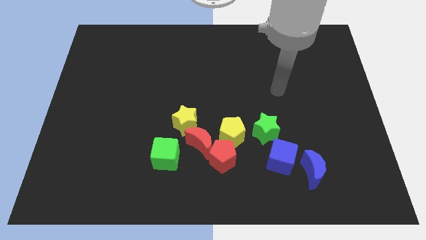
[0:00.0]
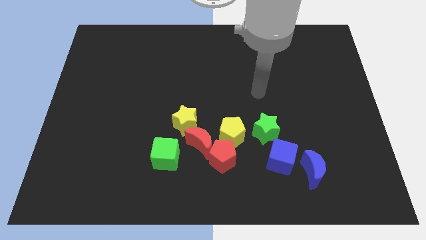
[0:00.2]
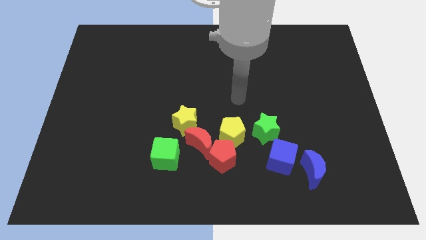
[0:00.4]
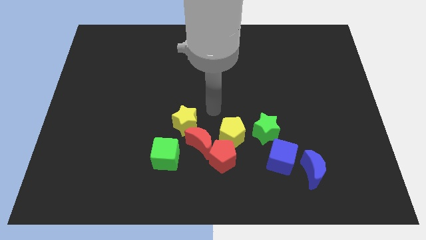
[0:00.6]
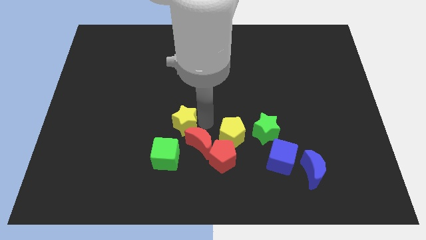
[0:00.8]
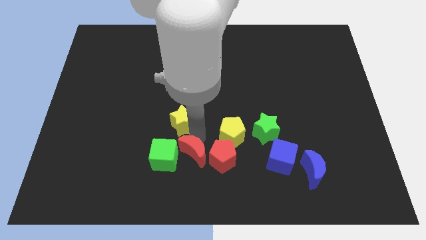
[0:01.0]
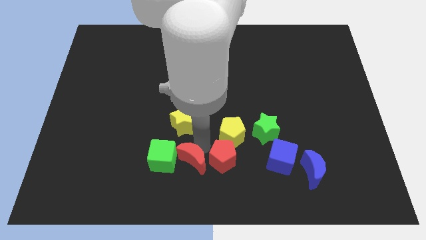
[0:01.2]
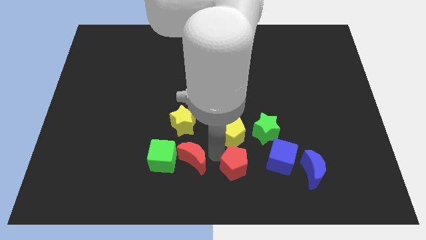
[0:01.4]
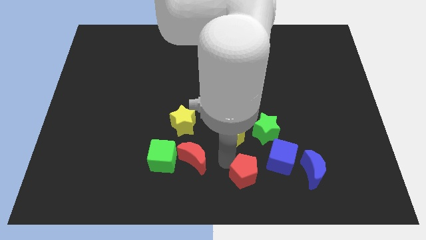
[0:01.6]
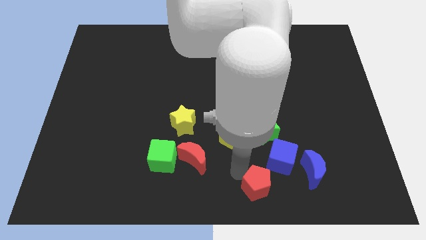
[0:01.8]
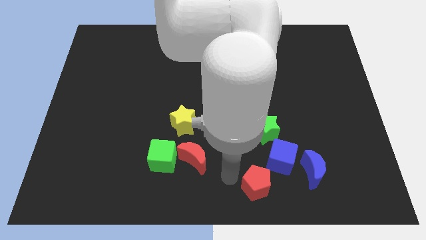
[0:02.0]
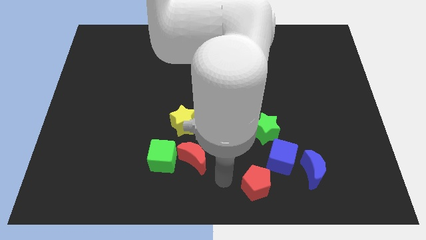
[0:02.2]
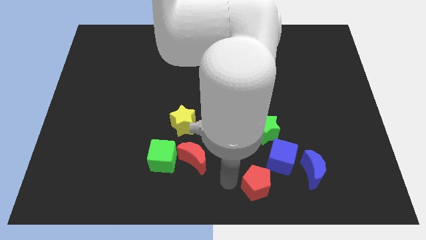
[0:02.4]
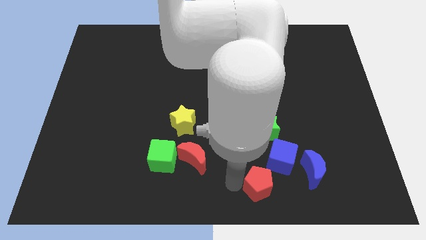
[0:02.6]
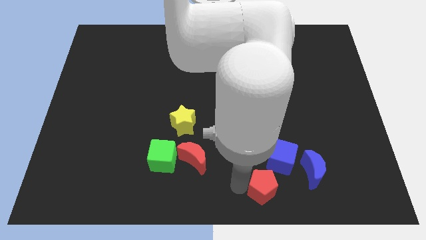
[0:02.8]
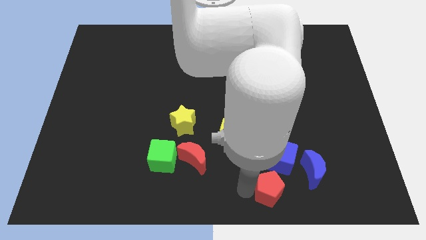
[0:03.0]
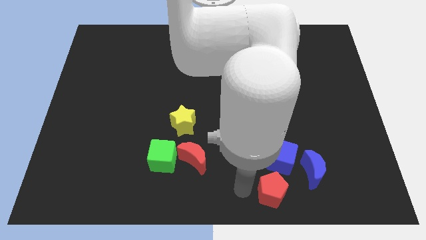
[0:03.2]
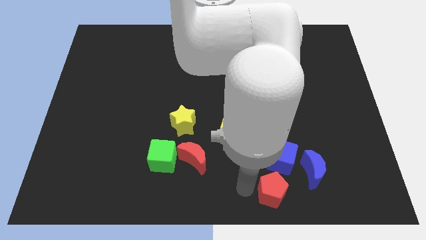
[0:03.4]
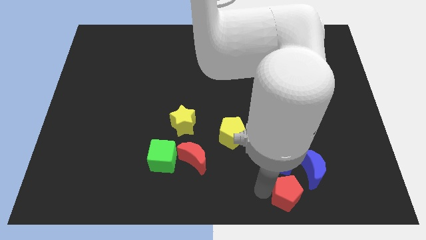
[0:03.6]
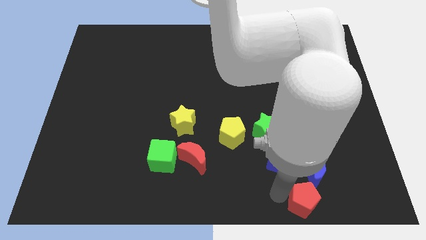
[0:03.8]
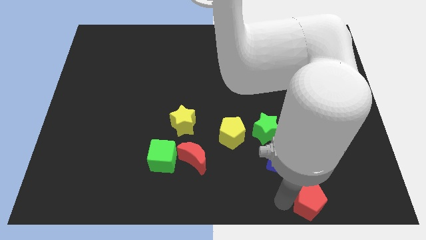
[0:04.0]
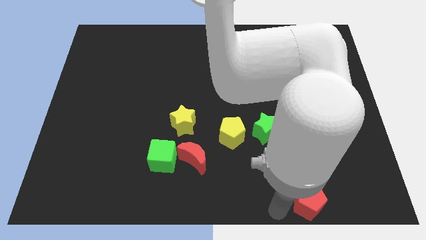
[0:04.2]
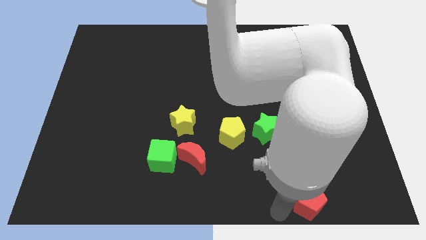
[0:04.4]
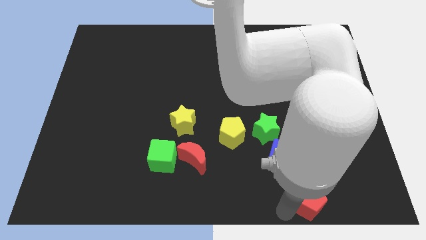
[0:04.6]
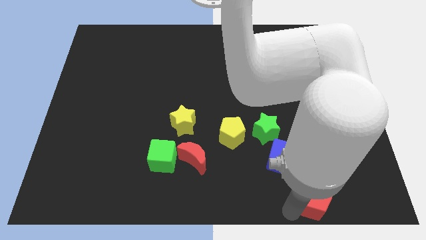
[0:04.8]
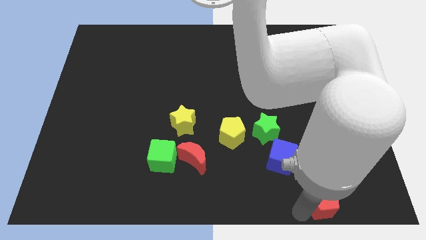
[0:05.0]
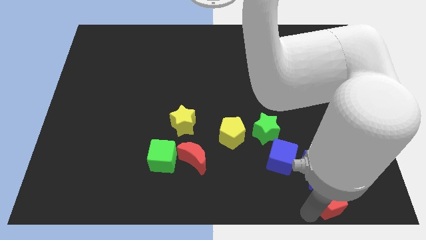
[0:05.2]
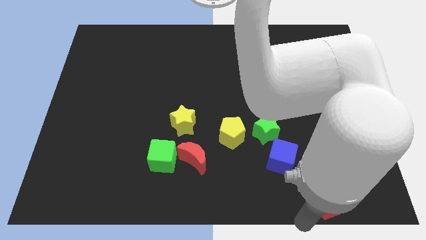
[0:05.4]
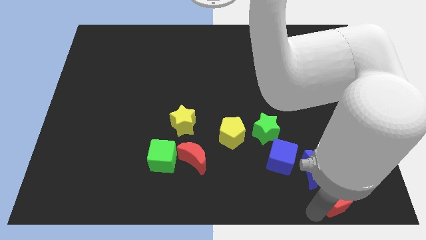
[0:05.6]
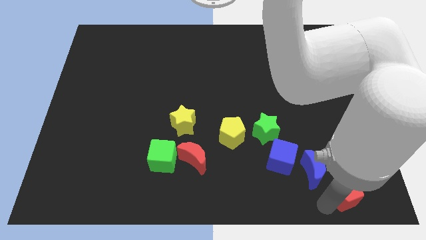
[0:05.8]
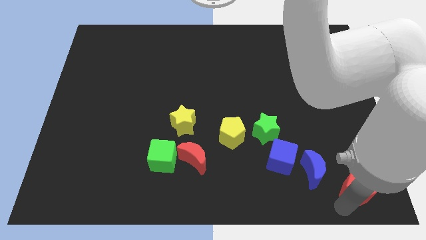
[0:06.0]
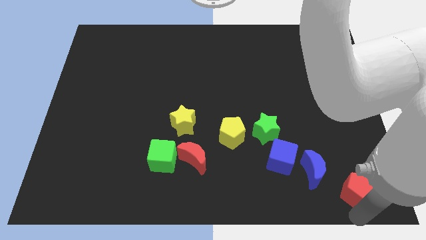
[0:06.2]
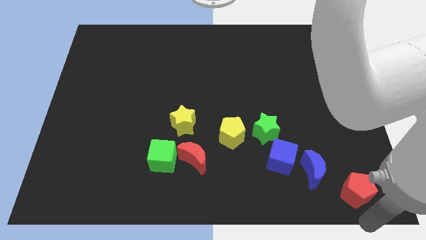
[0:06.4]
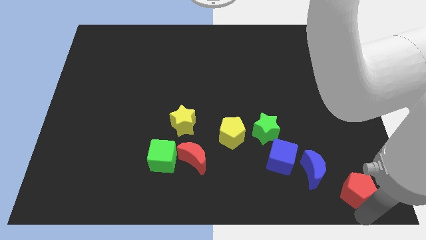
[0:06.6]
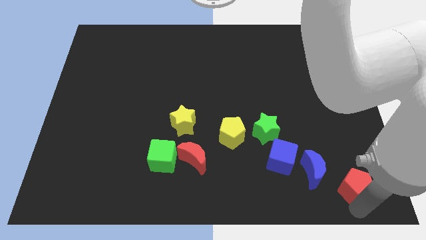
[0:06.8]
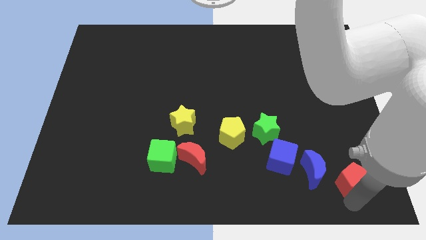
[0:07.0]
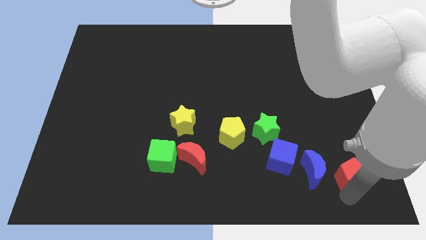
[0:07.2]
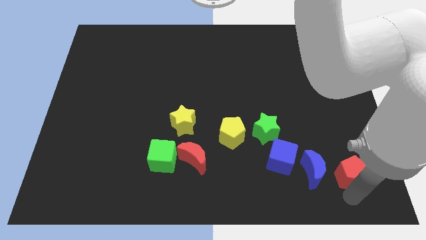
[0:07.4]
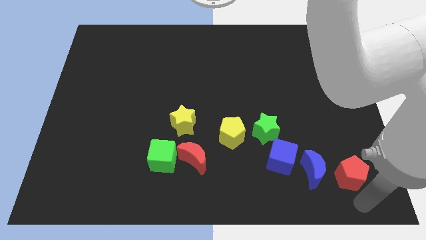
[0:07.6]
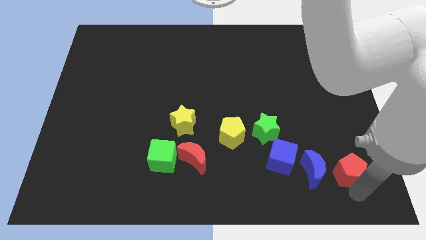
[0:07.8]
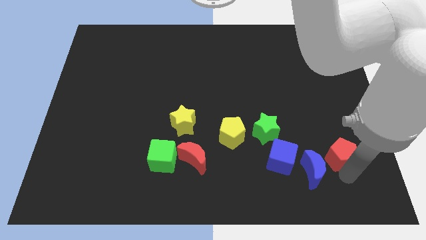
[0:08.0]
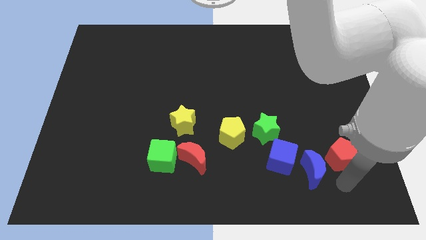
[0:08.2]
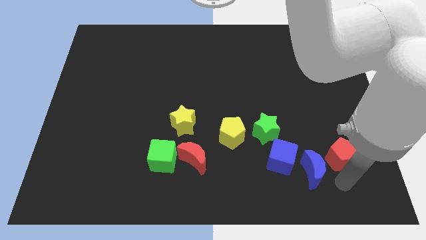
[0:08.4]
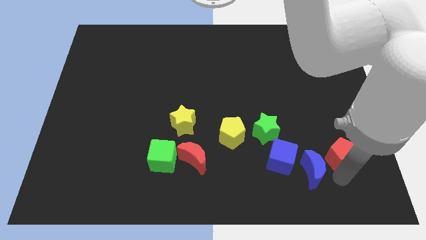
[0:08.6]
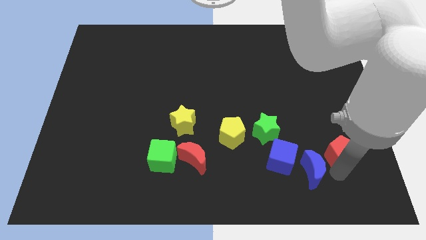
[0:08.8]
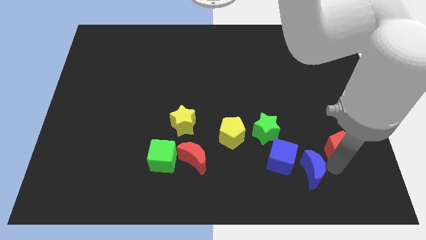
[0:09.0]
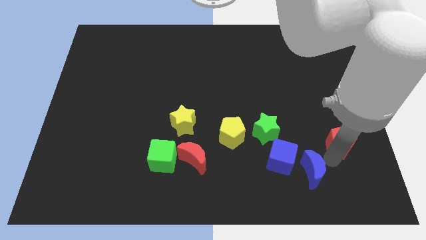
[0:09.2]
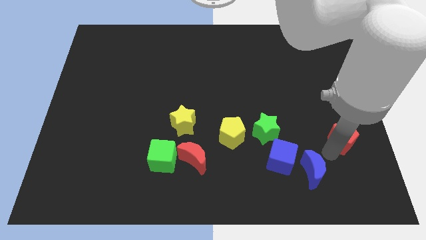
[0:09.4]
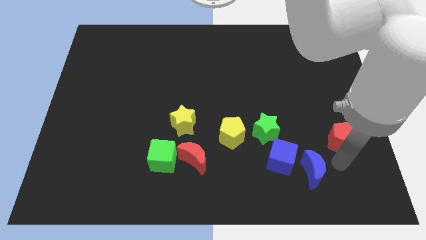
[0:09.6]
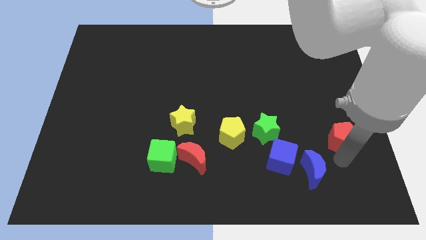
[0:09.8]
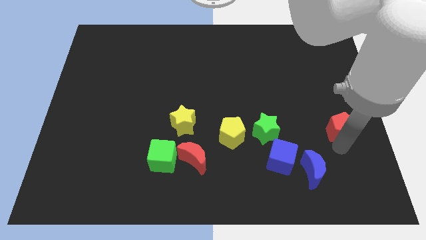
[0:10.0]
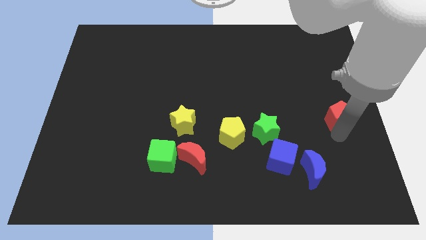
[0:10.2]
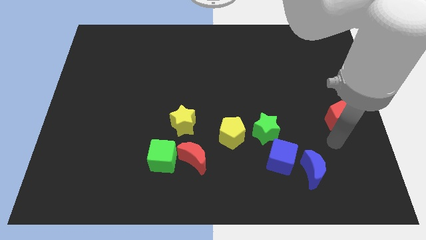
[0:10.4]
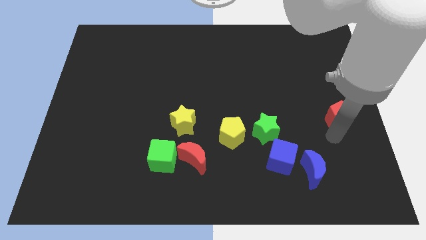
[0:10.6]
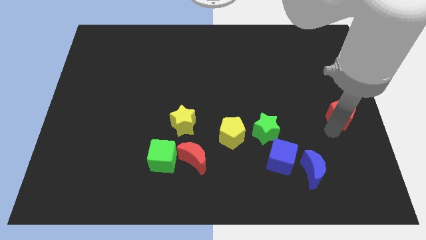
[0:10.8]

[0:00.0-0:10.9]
move the red pentagon upwards and then right

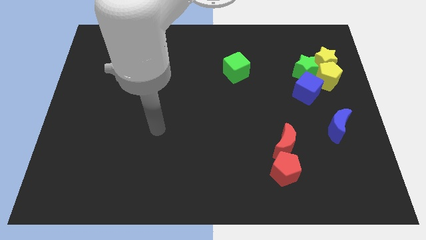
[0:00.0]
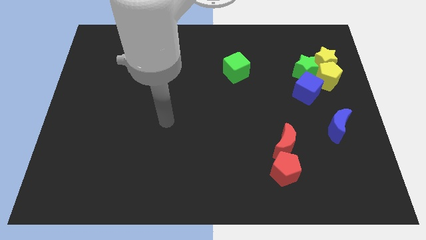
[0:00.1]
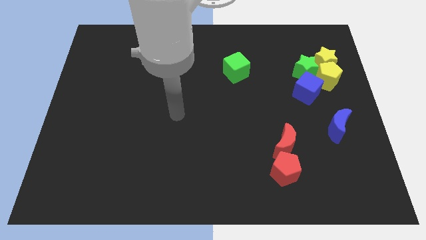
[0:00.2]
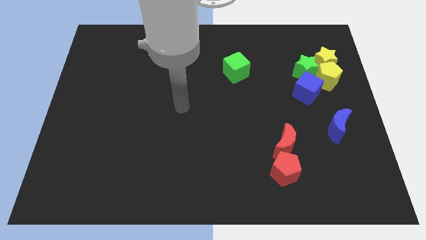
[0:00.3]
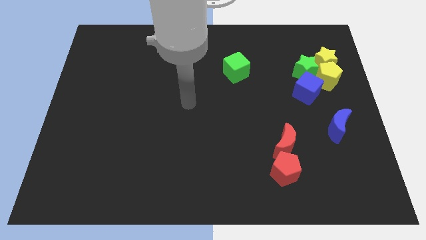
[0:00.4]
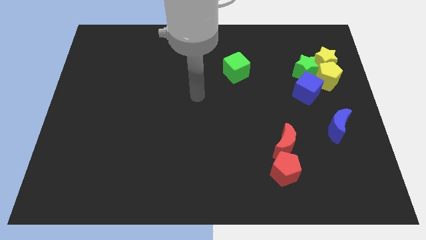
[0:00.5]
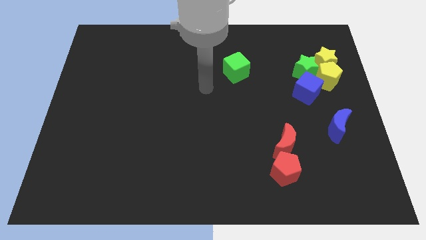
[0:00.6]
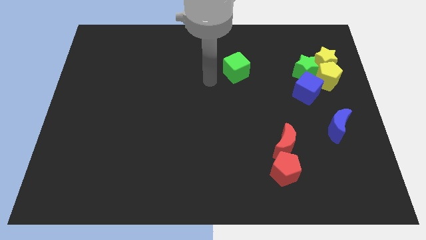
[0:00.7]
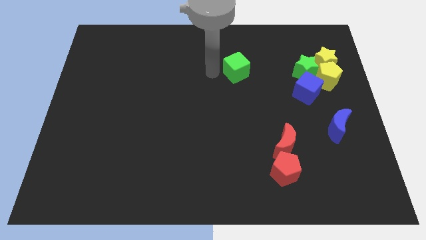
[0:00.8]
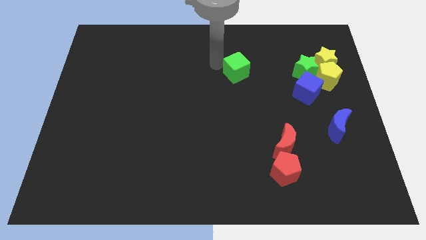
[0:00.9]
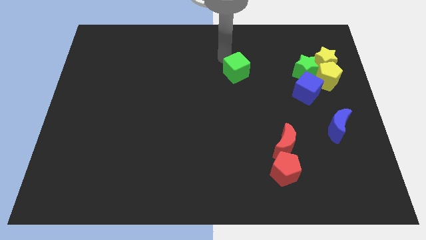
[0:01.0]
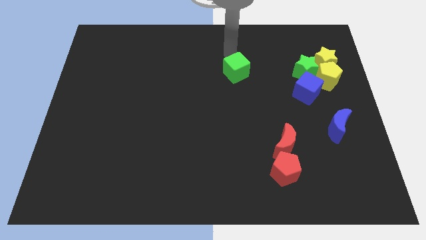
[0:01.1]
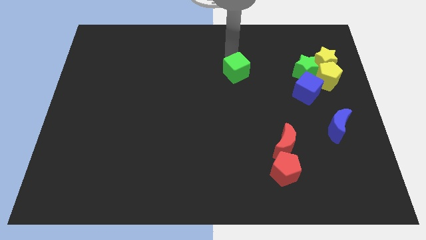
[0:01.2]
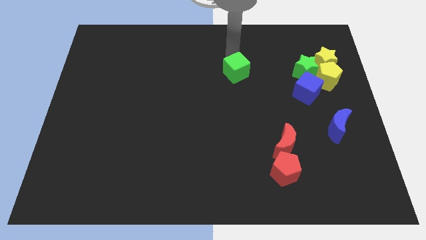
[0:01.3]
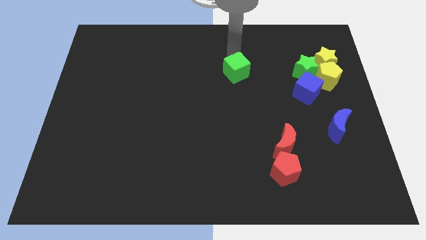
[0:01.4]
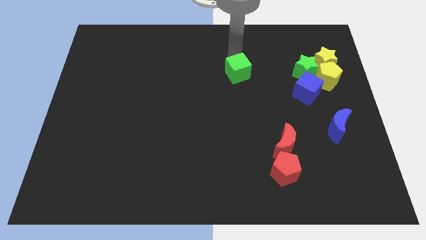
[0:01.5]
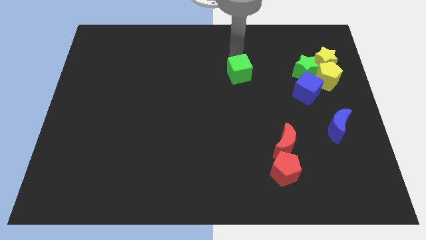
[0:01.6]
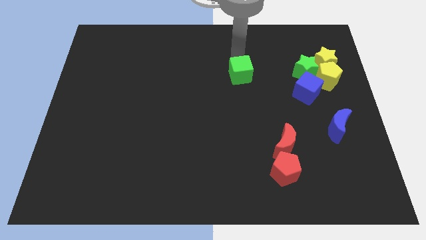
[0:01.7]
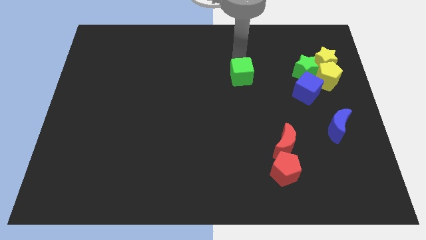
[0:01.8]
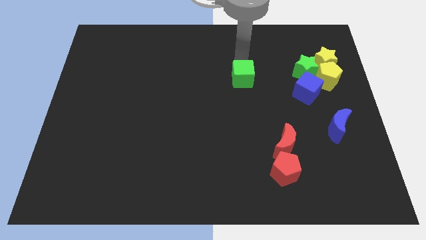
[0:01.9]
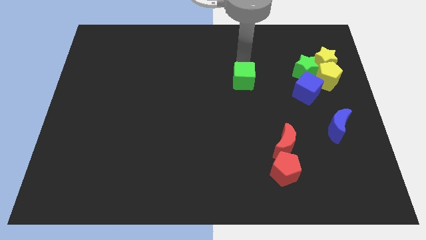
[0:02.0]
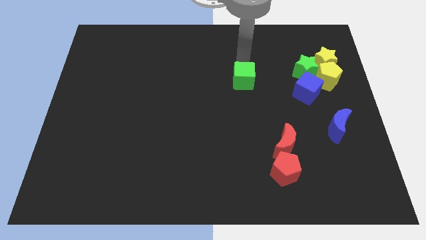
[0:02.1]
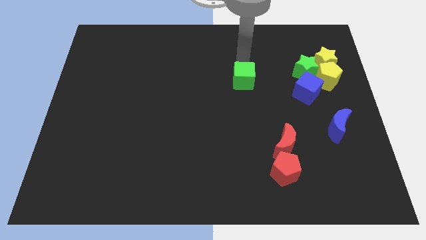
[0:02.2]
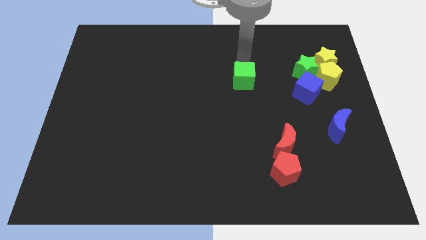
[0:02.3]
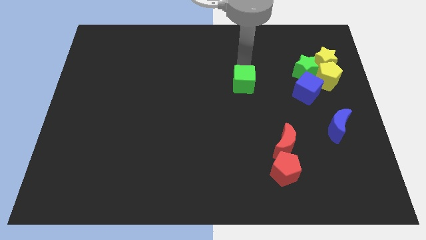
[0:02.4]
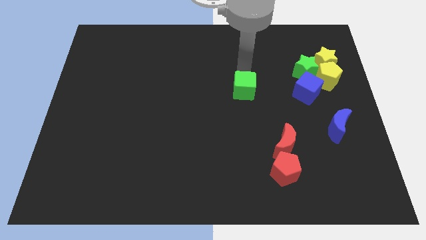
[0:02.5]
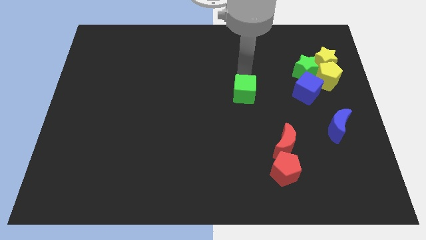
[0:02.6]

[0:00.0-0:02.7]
move the green cube a little down
